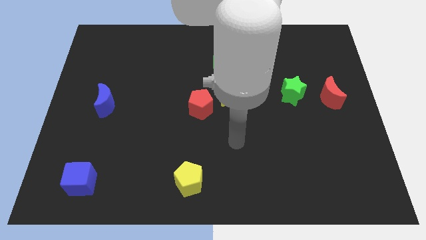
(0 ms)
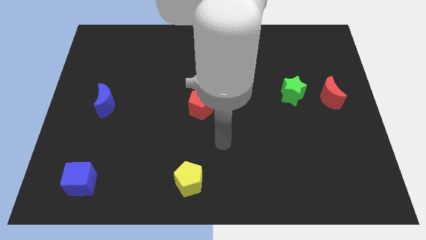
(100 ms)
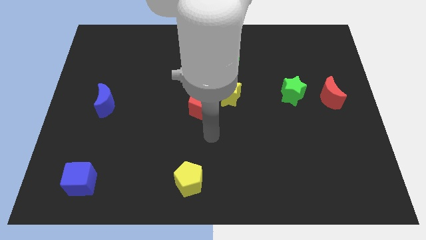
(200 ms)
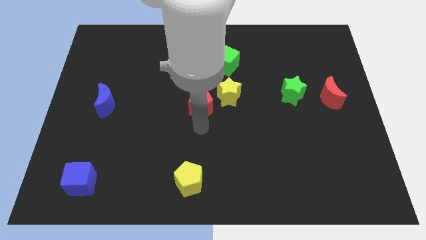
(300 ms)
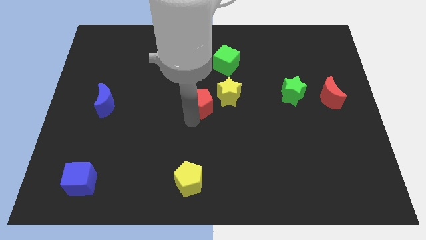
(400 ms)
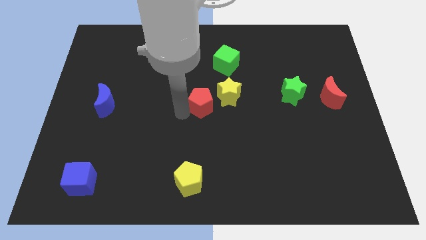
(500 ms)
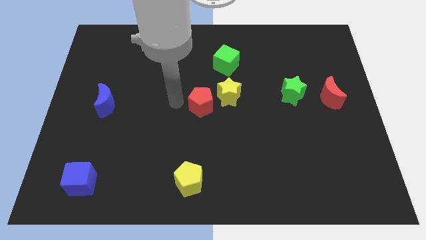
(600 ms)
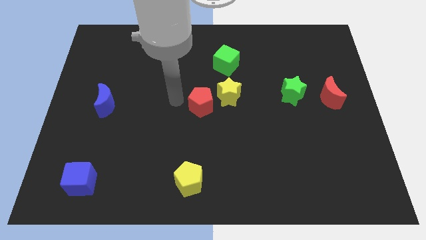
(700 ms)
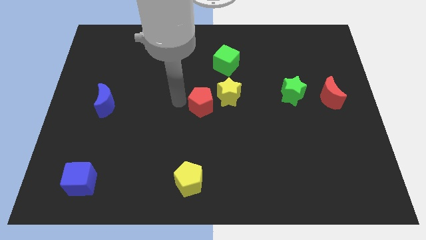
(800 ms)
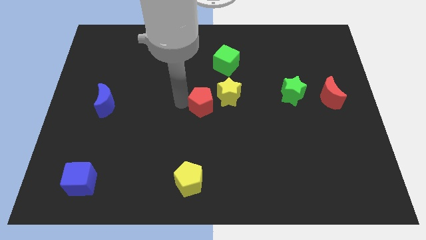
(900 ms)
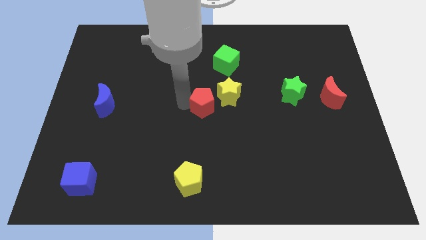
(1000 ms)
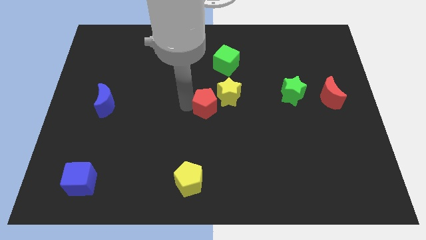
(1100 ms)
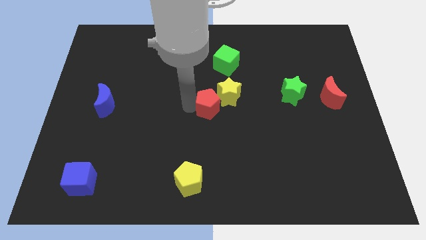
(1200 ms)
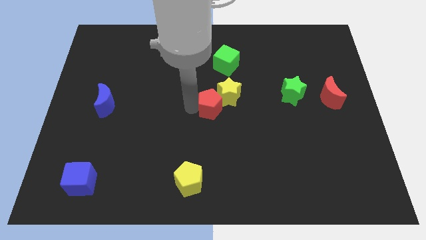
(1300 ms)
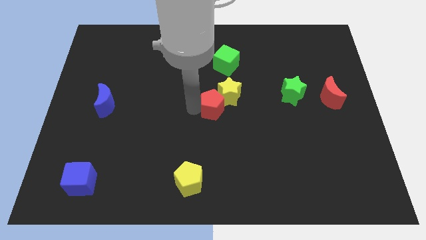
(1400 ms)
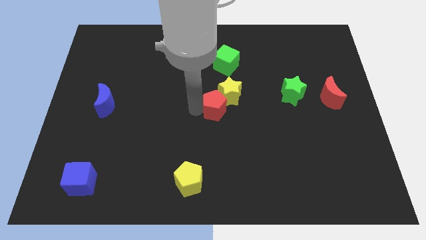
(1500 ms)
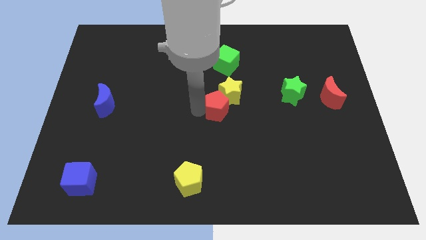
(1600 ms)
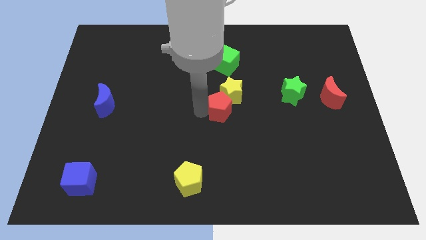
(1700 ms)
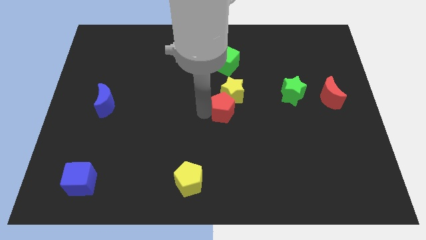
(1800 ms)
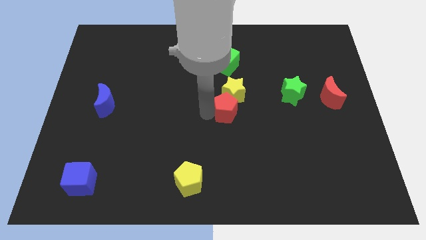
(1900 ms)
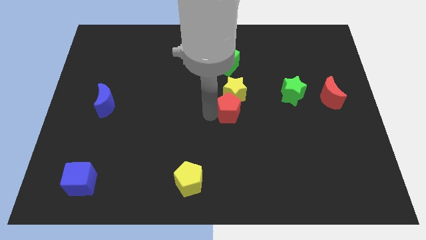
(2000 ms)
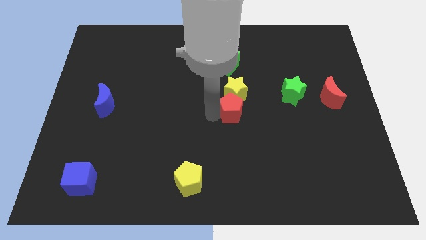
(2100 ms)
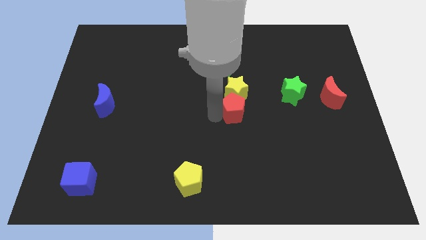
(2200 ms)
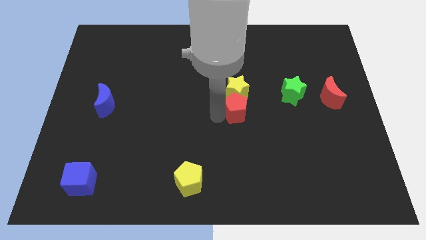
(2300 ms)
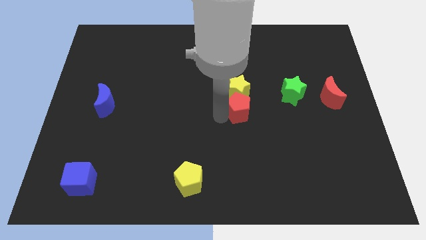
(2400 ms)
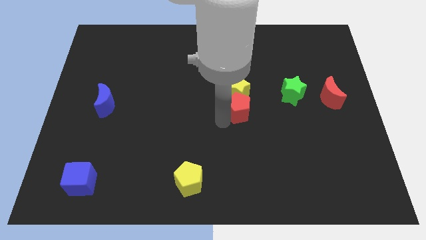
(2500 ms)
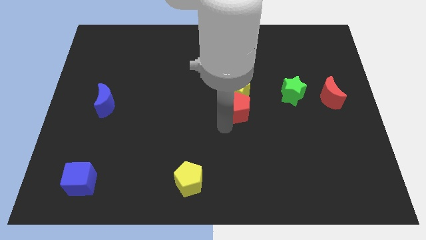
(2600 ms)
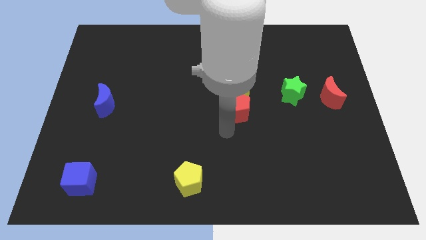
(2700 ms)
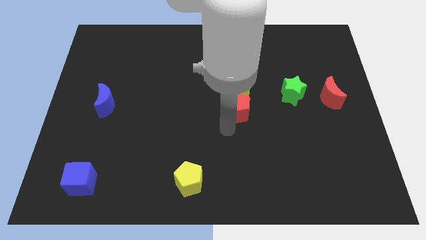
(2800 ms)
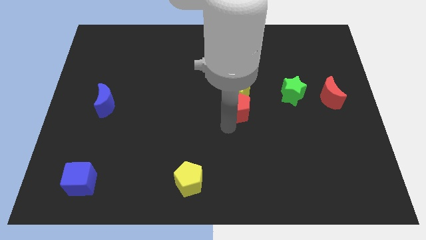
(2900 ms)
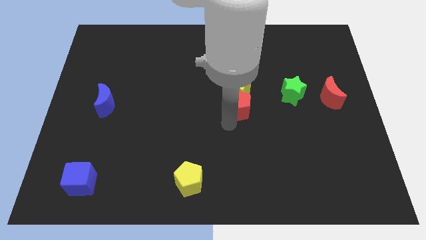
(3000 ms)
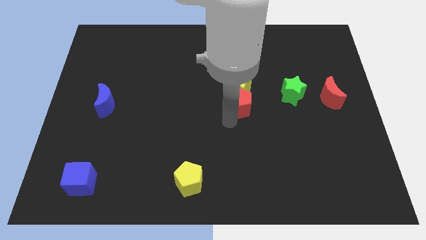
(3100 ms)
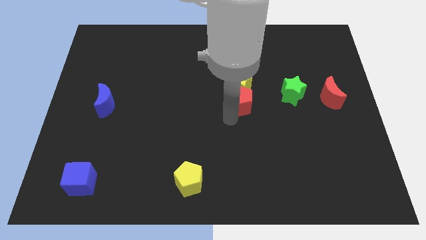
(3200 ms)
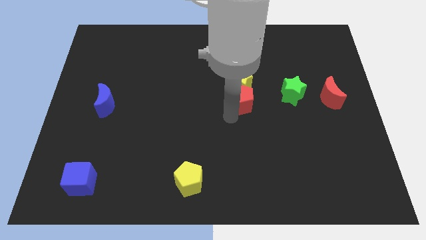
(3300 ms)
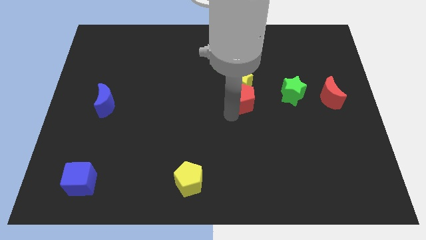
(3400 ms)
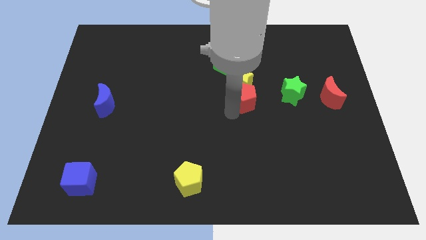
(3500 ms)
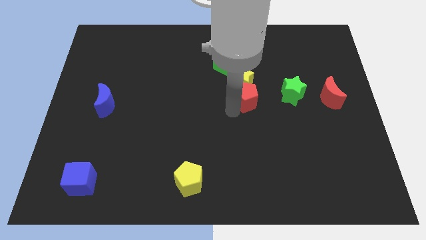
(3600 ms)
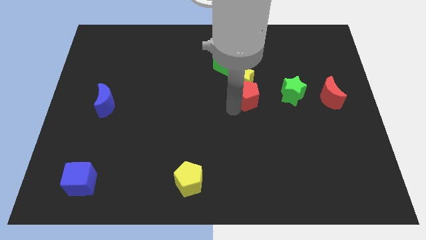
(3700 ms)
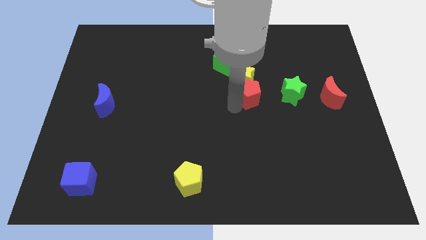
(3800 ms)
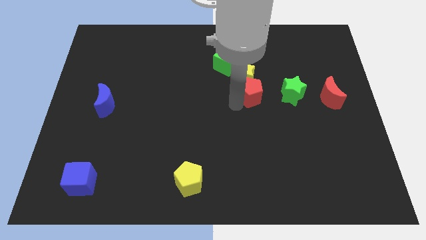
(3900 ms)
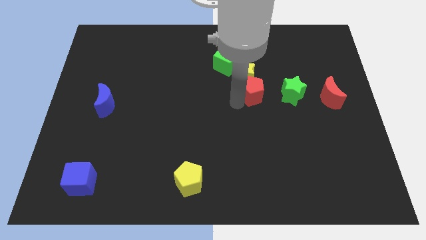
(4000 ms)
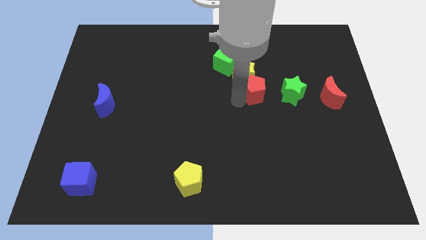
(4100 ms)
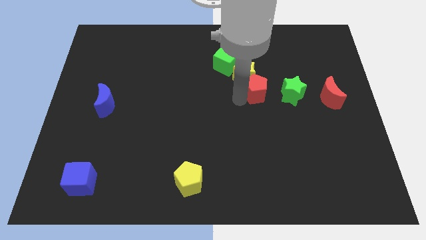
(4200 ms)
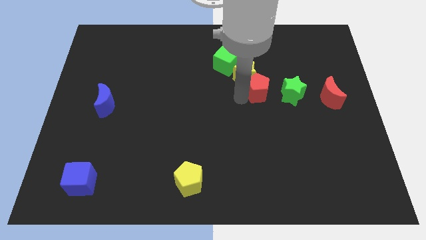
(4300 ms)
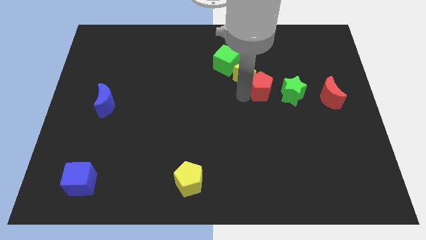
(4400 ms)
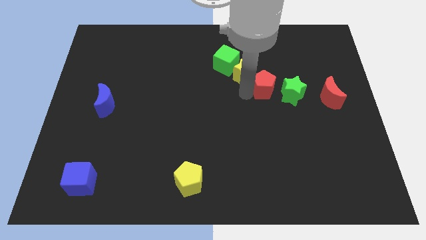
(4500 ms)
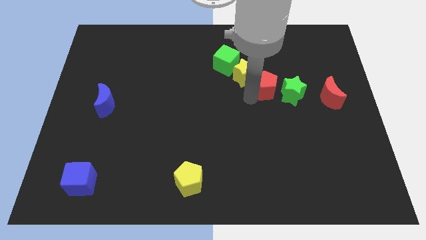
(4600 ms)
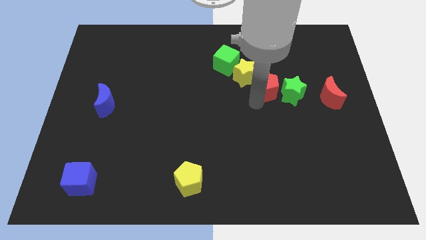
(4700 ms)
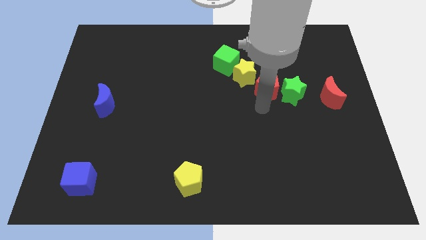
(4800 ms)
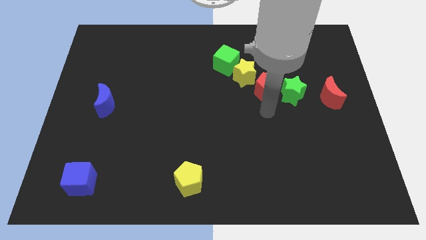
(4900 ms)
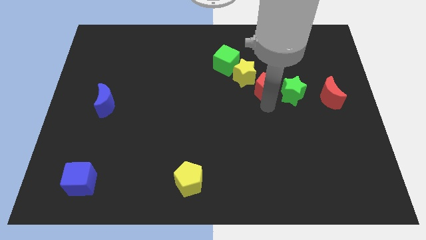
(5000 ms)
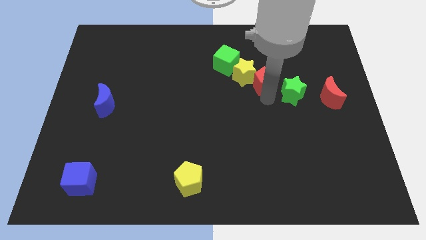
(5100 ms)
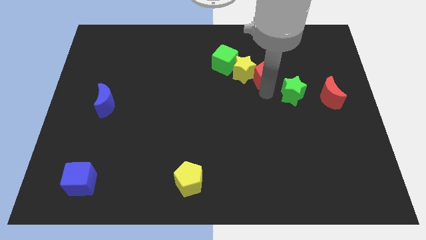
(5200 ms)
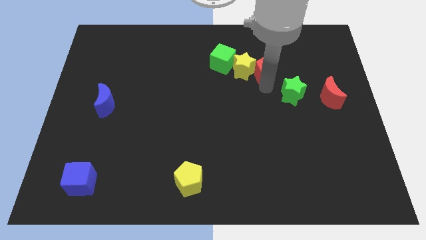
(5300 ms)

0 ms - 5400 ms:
move the red pentagon to the right side of the green cube

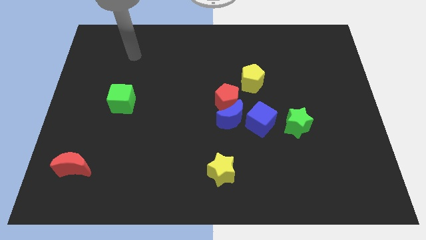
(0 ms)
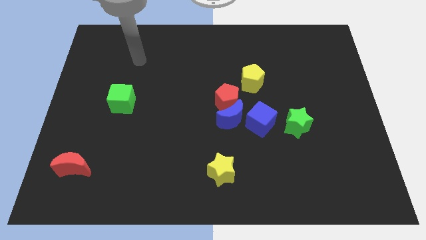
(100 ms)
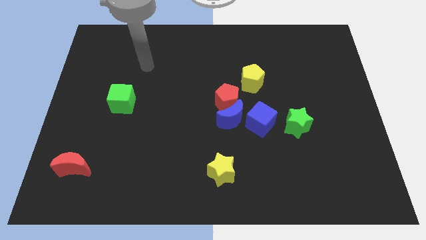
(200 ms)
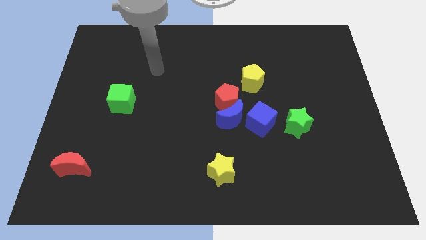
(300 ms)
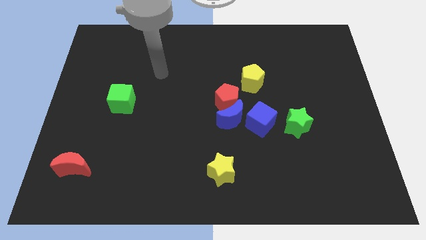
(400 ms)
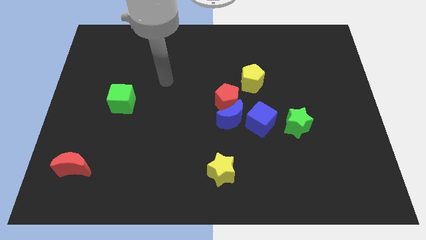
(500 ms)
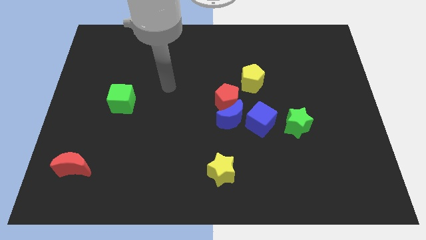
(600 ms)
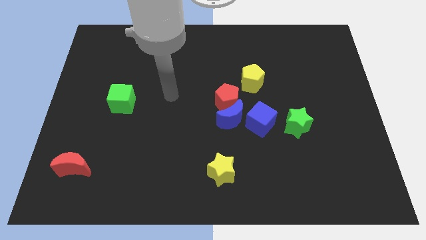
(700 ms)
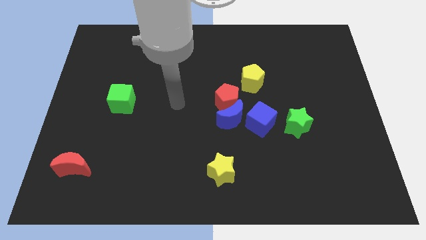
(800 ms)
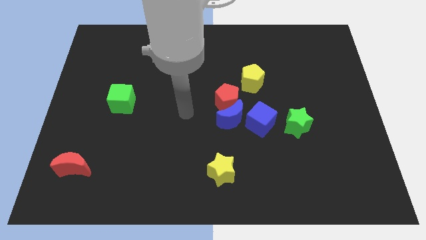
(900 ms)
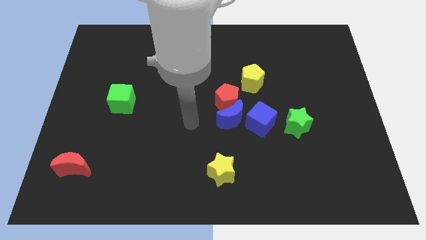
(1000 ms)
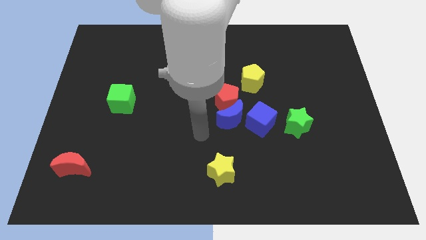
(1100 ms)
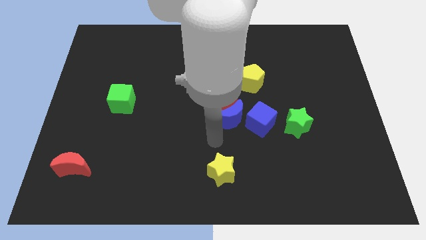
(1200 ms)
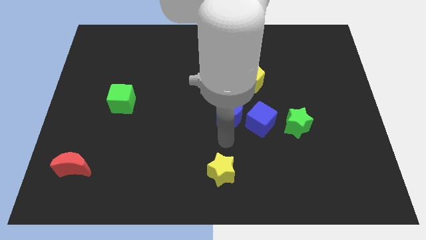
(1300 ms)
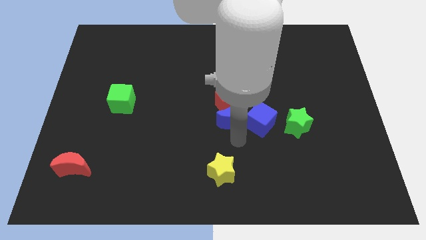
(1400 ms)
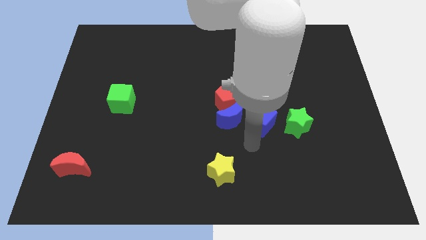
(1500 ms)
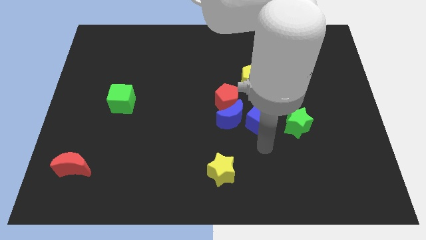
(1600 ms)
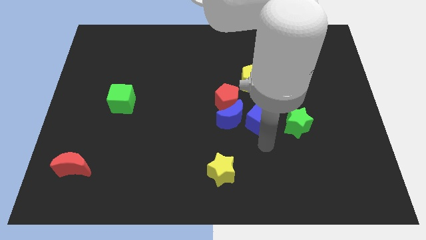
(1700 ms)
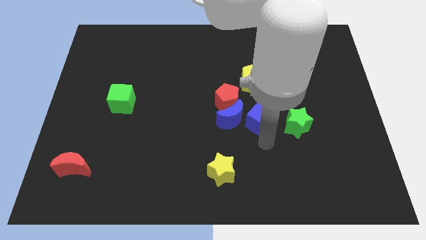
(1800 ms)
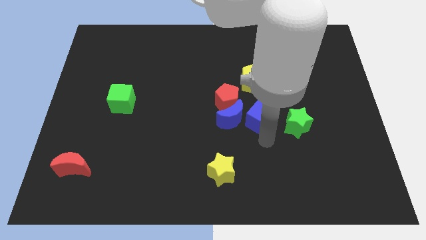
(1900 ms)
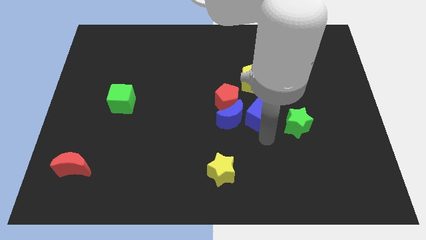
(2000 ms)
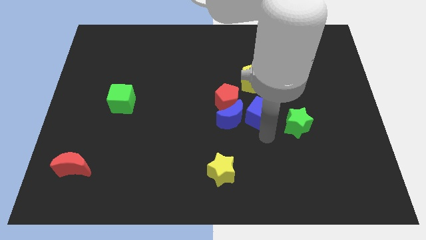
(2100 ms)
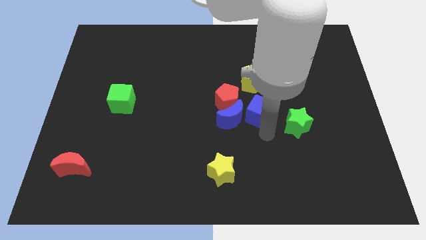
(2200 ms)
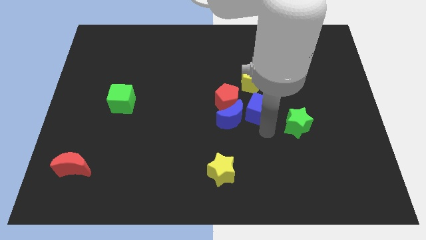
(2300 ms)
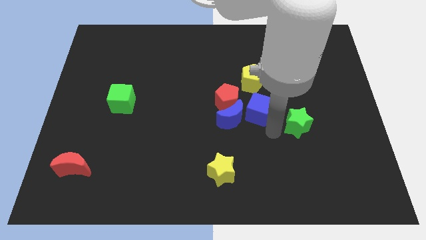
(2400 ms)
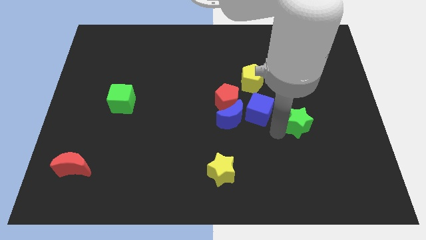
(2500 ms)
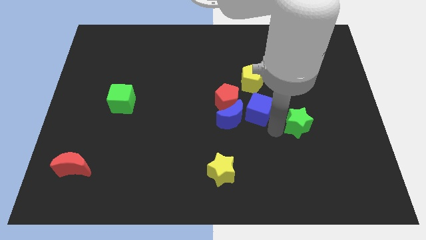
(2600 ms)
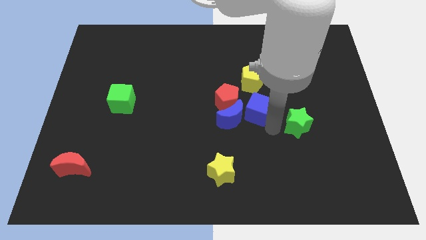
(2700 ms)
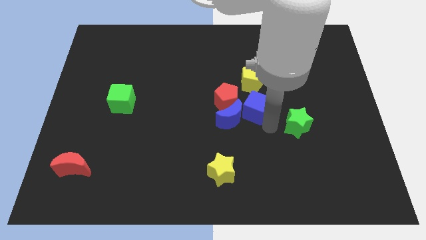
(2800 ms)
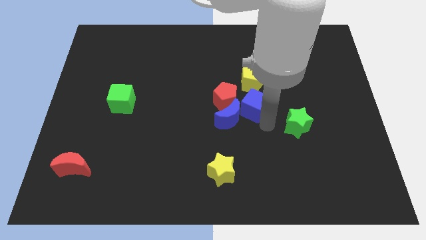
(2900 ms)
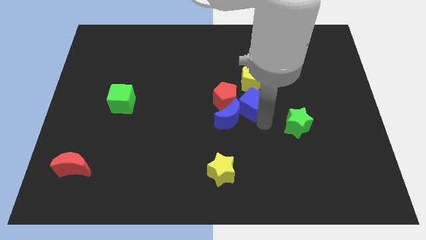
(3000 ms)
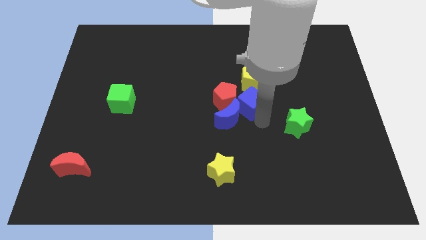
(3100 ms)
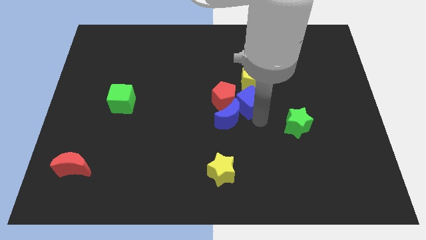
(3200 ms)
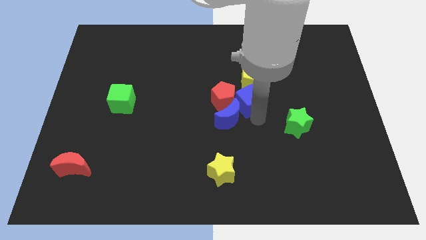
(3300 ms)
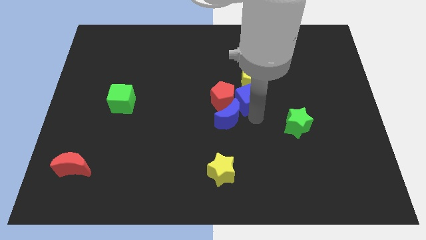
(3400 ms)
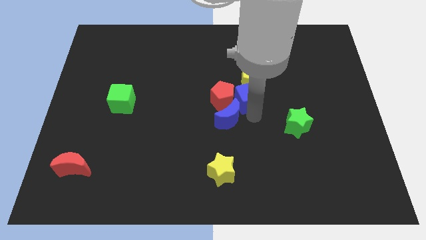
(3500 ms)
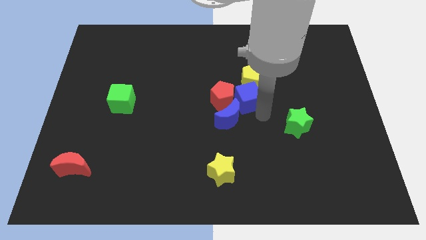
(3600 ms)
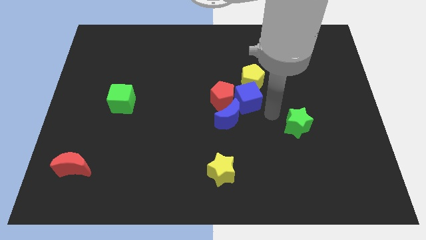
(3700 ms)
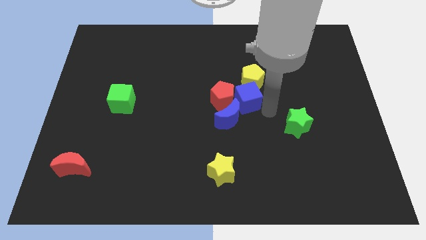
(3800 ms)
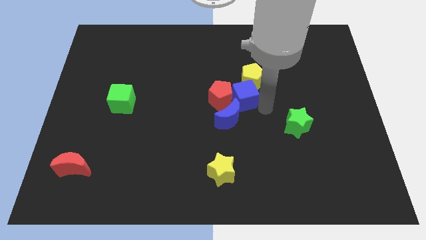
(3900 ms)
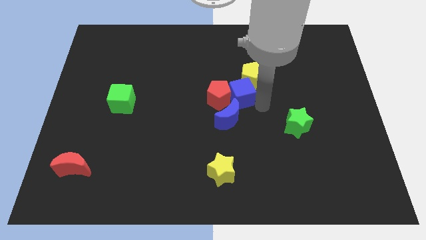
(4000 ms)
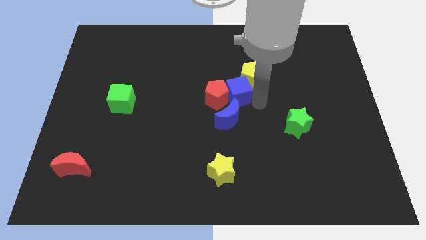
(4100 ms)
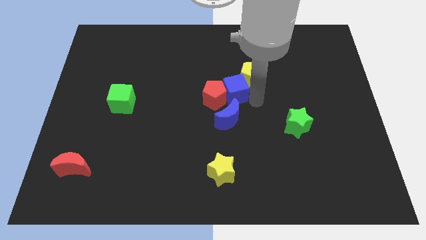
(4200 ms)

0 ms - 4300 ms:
move the blue cube just left of the yellow pentagon
